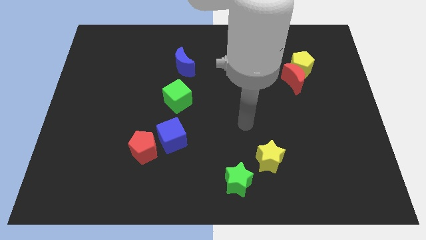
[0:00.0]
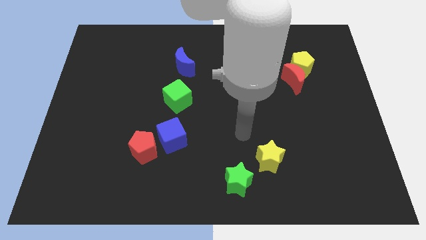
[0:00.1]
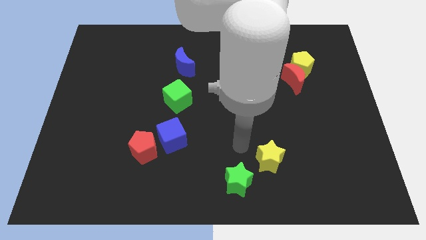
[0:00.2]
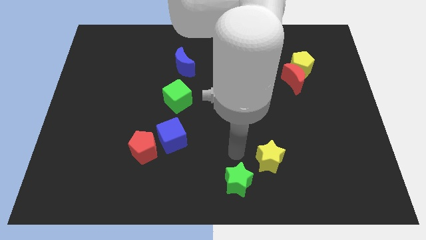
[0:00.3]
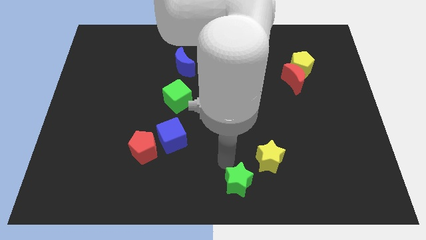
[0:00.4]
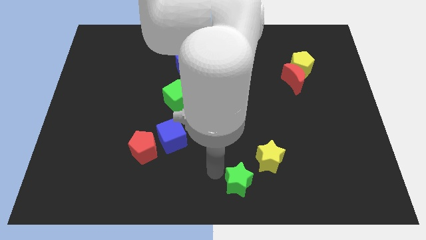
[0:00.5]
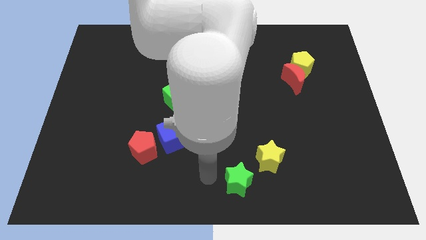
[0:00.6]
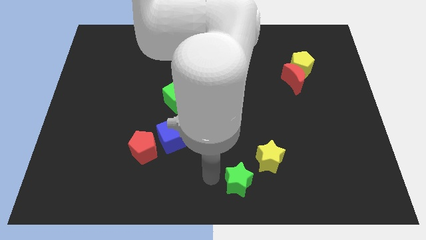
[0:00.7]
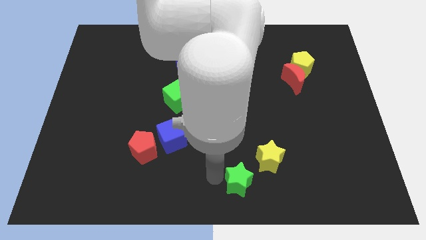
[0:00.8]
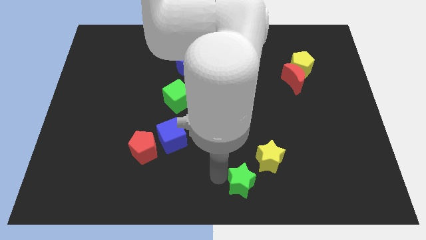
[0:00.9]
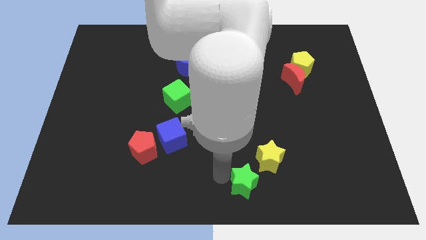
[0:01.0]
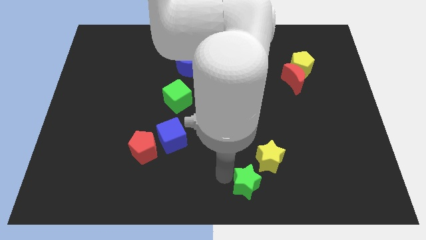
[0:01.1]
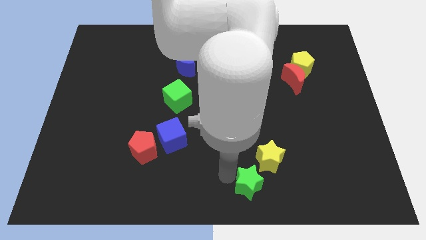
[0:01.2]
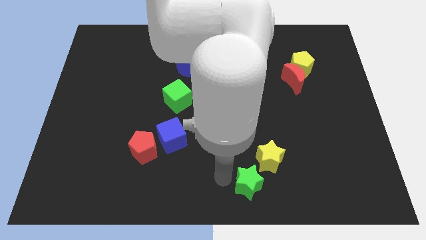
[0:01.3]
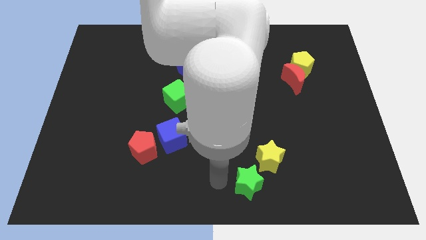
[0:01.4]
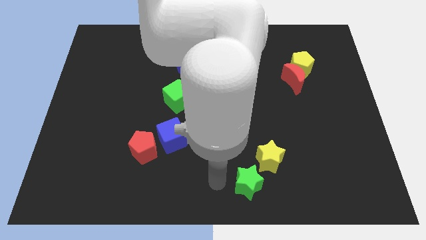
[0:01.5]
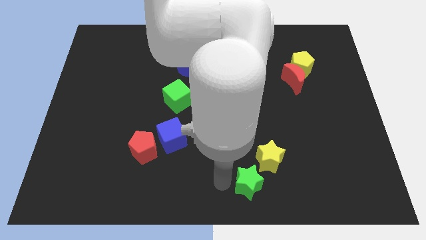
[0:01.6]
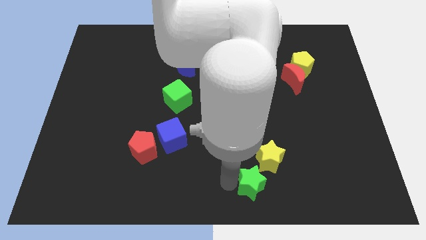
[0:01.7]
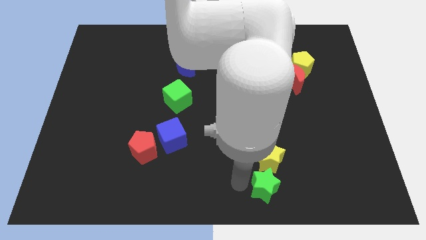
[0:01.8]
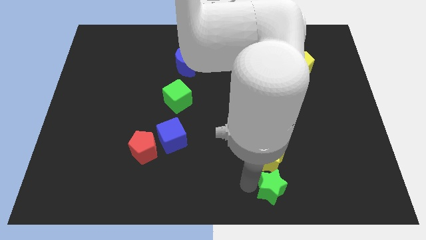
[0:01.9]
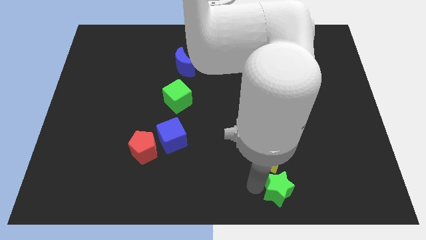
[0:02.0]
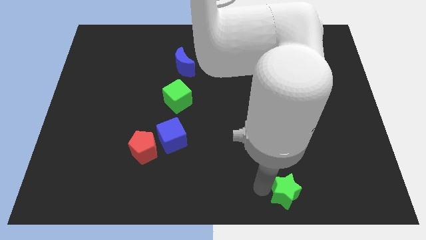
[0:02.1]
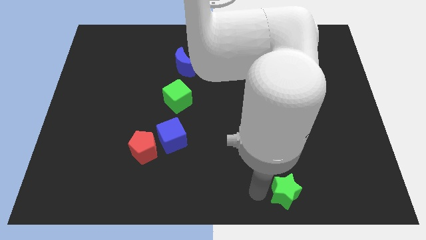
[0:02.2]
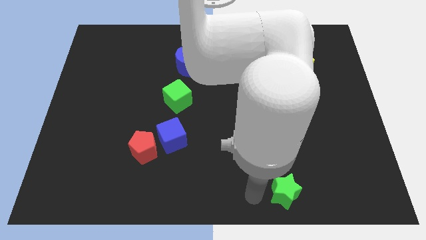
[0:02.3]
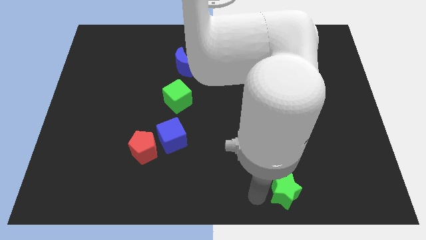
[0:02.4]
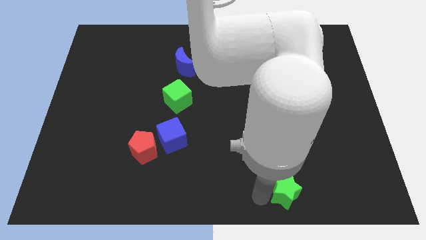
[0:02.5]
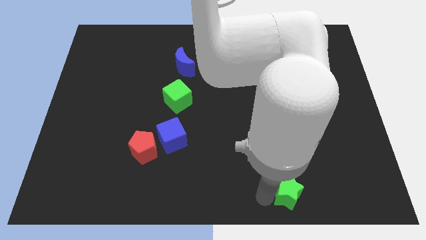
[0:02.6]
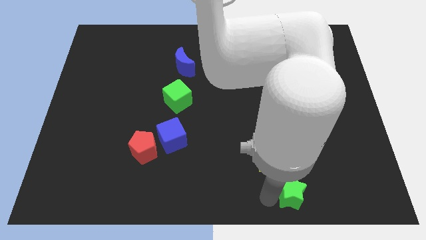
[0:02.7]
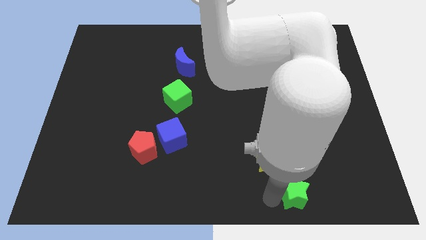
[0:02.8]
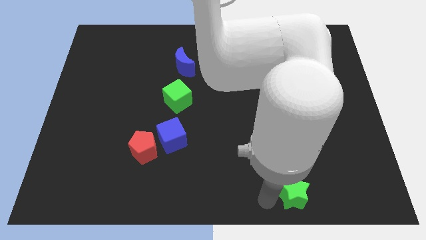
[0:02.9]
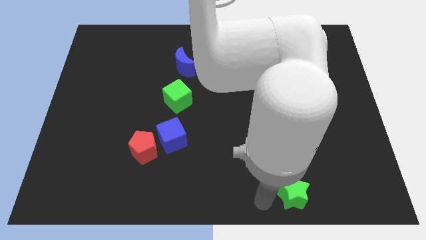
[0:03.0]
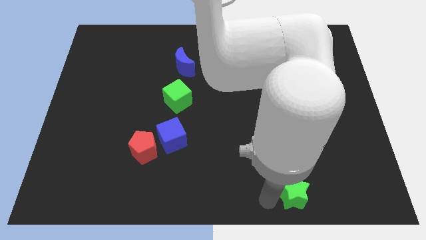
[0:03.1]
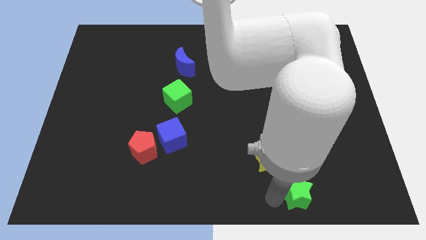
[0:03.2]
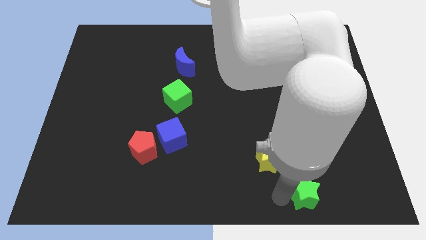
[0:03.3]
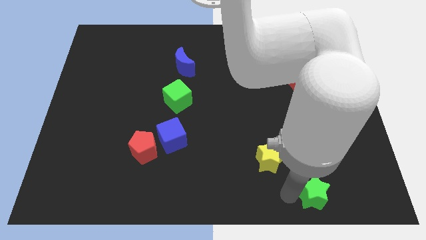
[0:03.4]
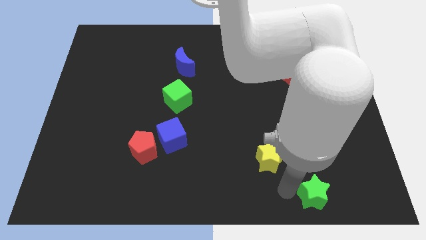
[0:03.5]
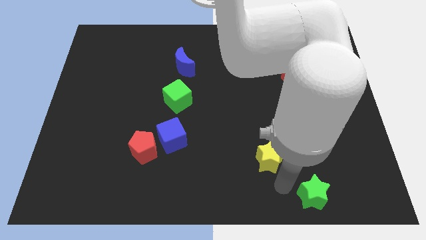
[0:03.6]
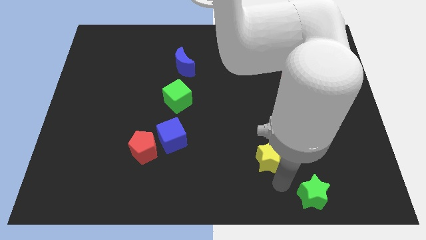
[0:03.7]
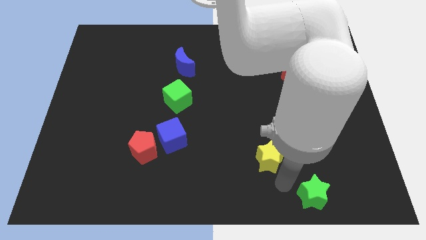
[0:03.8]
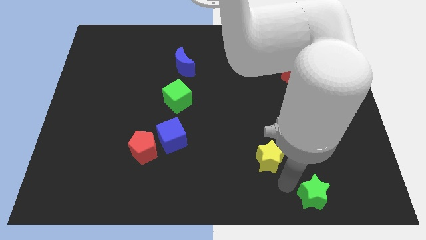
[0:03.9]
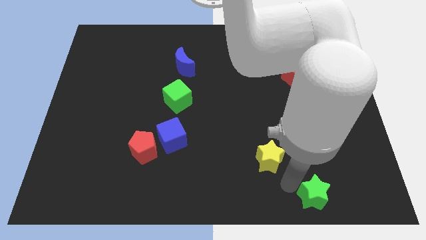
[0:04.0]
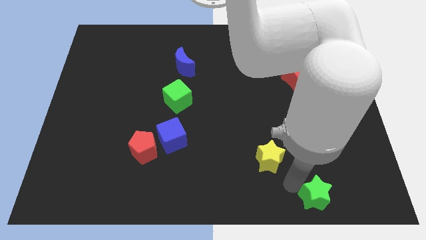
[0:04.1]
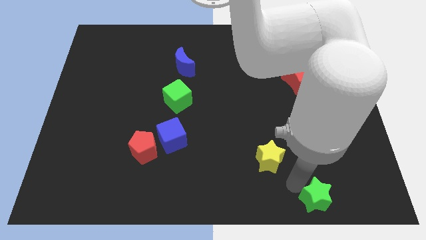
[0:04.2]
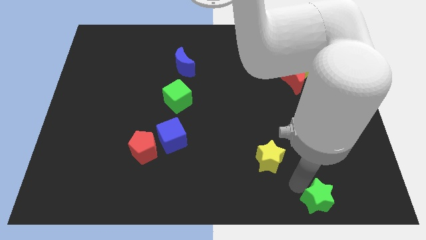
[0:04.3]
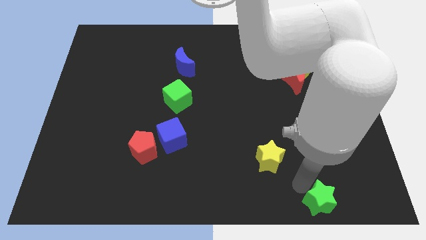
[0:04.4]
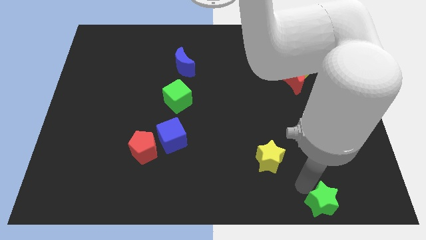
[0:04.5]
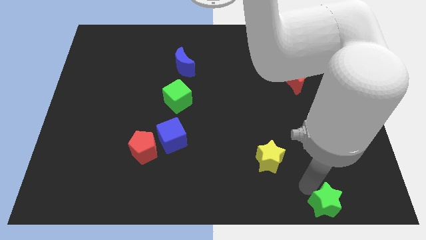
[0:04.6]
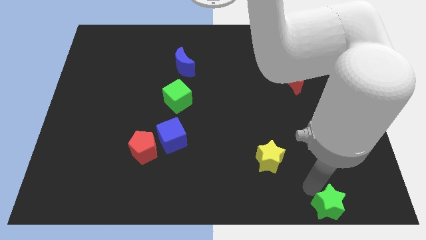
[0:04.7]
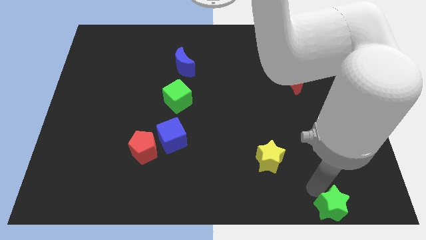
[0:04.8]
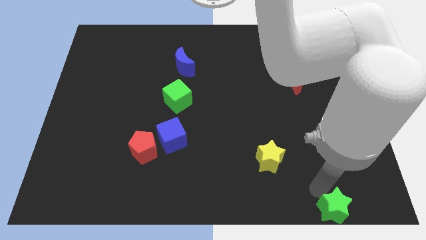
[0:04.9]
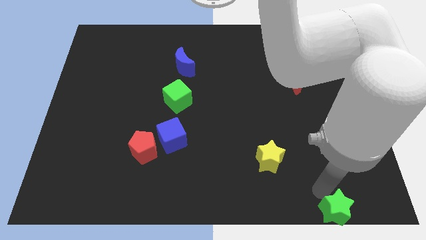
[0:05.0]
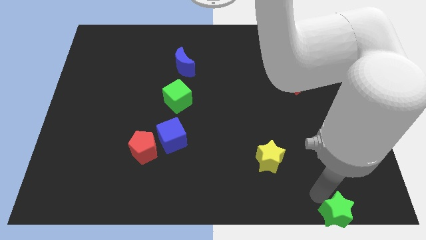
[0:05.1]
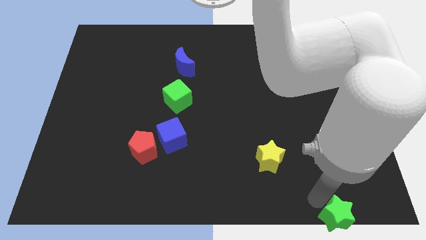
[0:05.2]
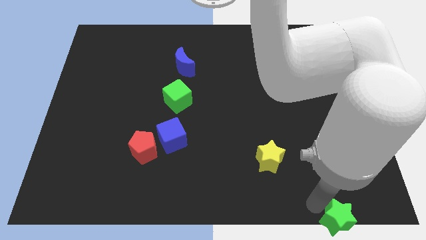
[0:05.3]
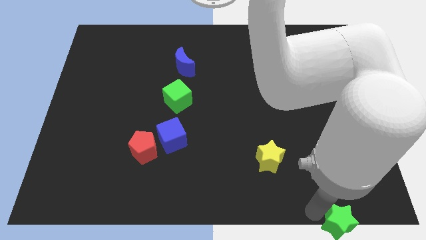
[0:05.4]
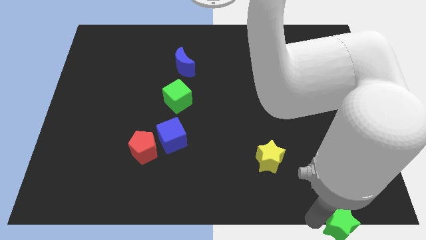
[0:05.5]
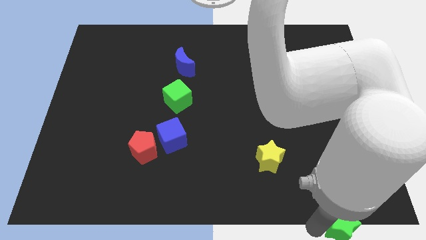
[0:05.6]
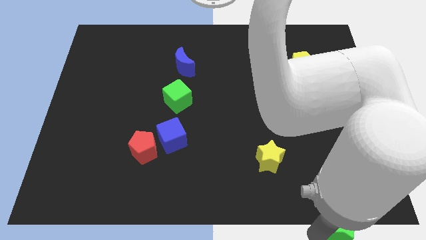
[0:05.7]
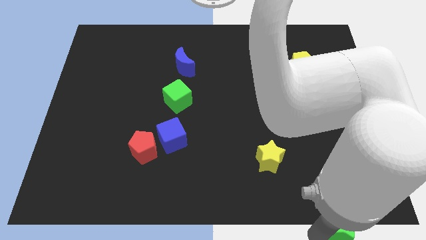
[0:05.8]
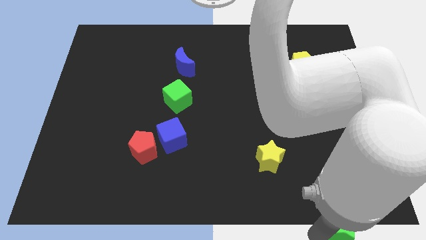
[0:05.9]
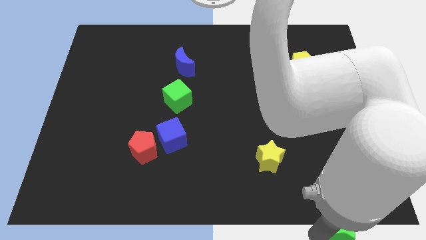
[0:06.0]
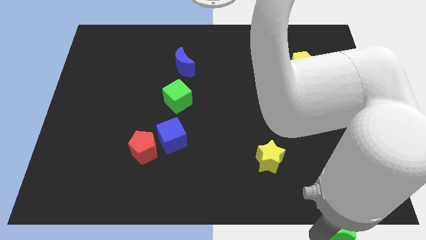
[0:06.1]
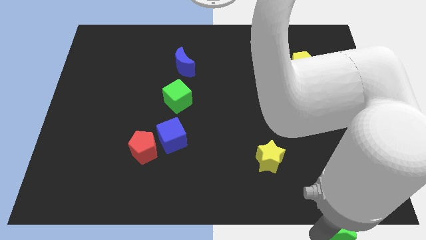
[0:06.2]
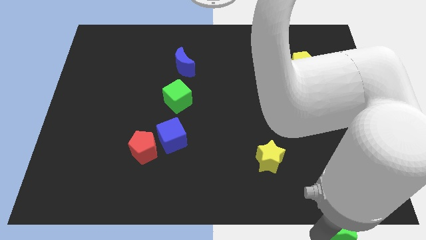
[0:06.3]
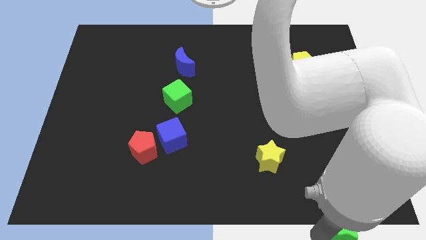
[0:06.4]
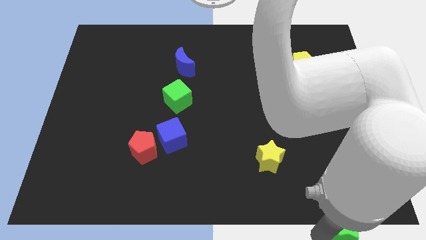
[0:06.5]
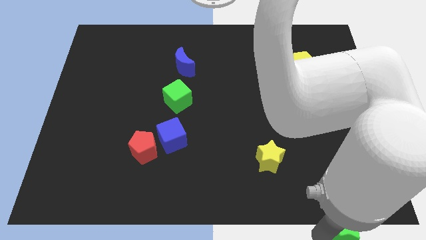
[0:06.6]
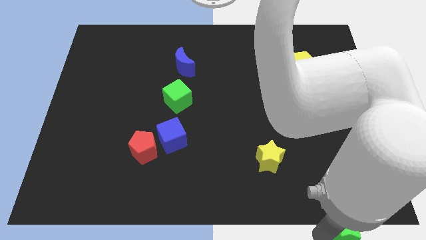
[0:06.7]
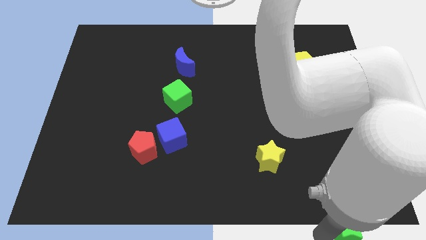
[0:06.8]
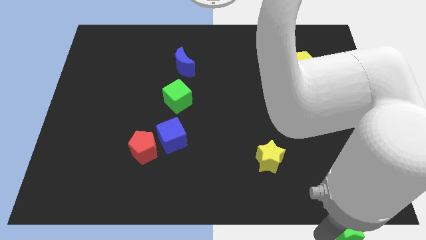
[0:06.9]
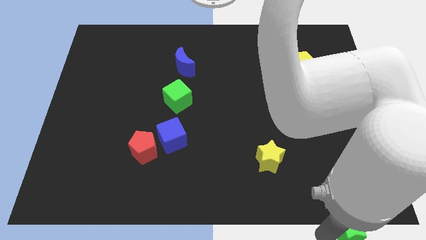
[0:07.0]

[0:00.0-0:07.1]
push the green star to the bottom right corner

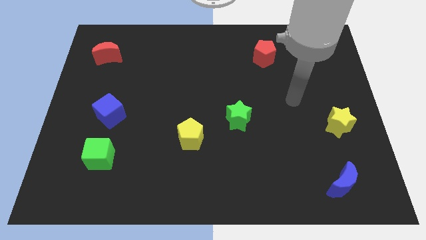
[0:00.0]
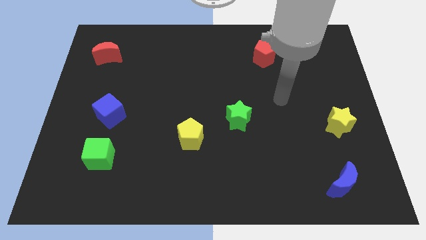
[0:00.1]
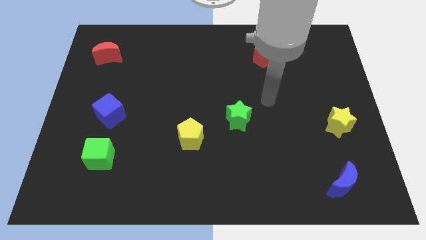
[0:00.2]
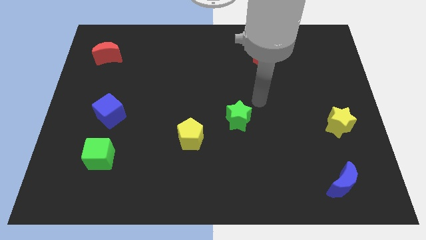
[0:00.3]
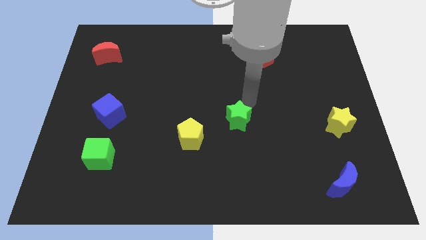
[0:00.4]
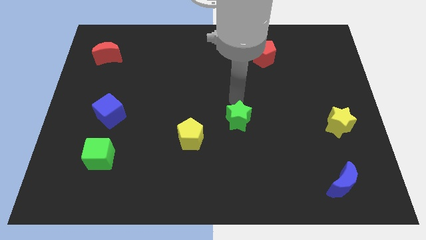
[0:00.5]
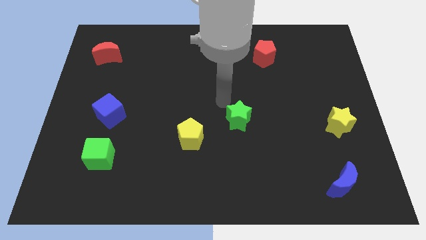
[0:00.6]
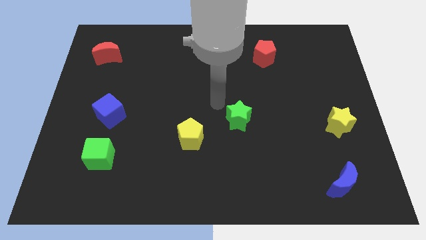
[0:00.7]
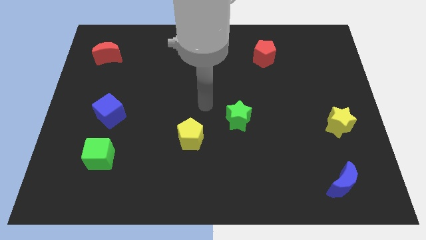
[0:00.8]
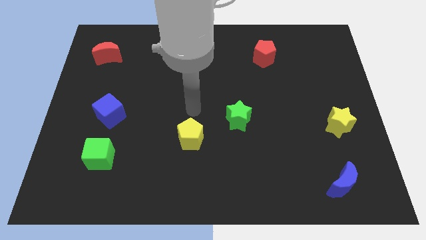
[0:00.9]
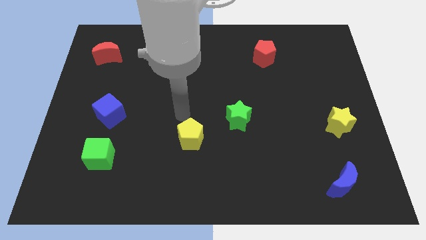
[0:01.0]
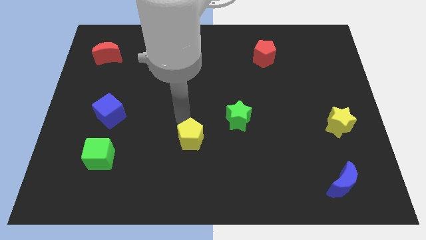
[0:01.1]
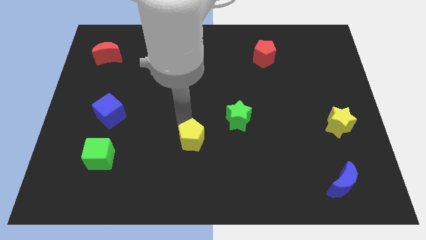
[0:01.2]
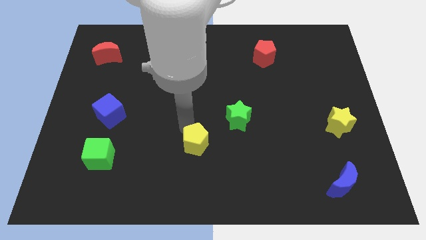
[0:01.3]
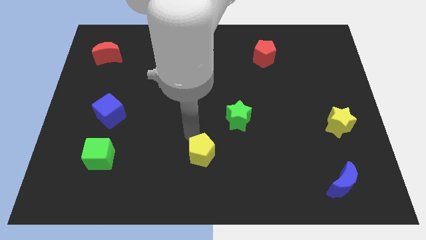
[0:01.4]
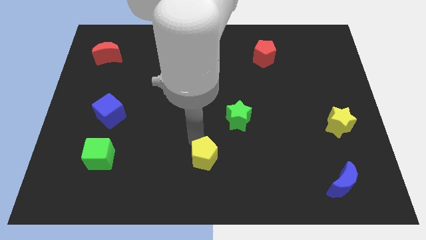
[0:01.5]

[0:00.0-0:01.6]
push the yellow pentagon to the bottom side
